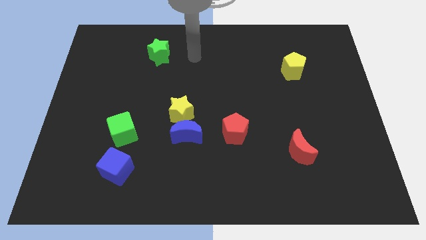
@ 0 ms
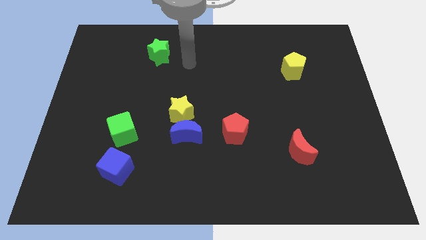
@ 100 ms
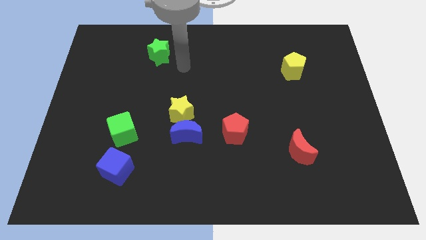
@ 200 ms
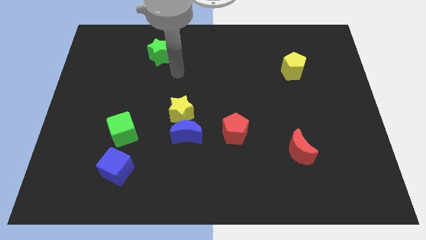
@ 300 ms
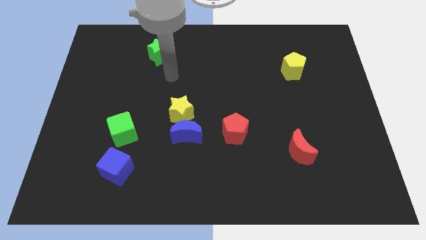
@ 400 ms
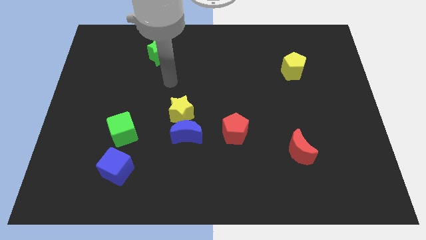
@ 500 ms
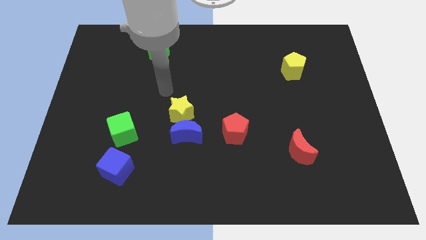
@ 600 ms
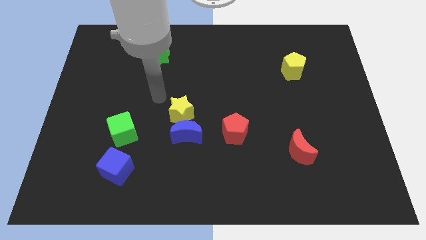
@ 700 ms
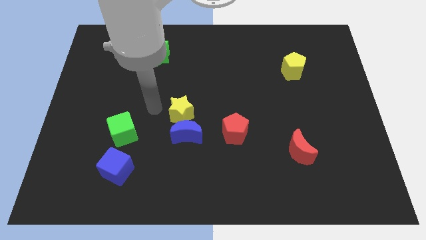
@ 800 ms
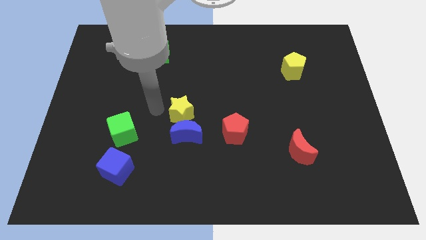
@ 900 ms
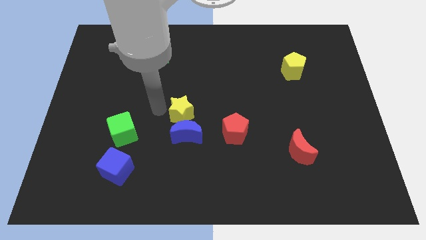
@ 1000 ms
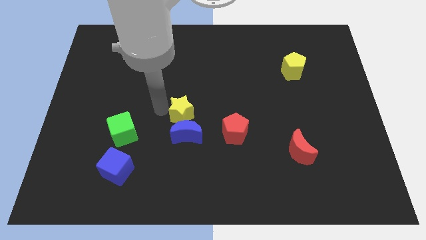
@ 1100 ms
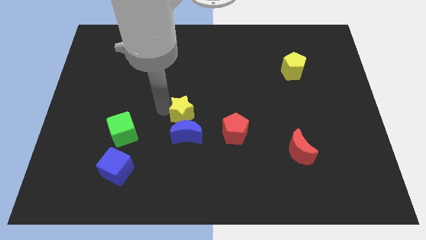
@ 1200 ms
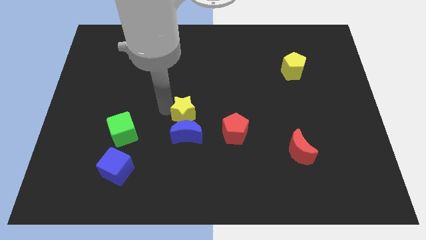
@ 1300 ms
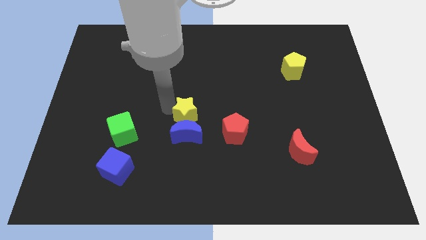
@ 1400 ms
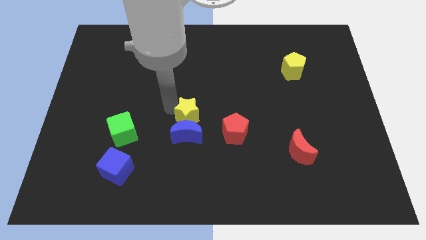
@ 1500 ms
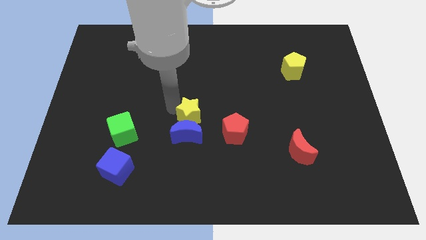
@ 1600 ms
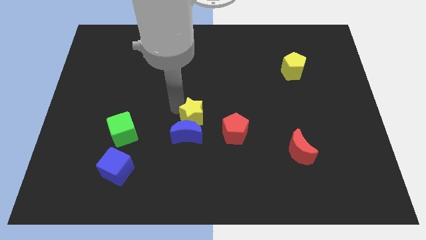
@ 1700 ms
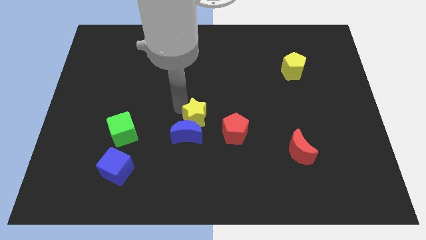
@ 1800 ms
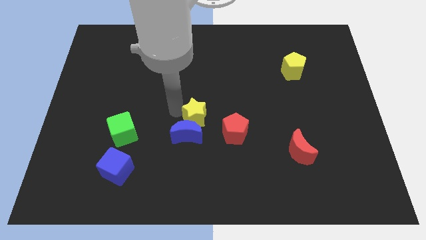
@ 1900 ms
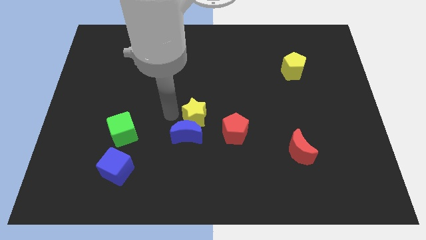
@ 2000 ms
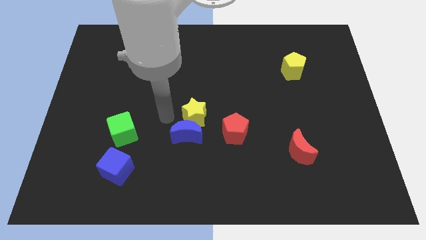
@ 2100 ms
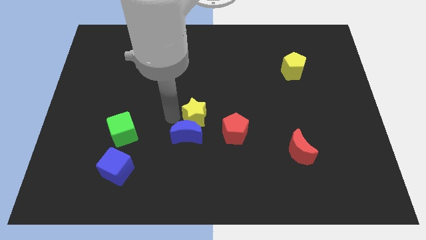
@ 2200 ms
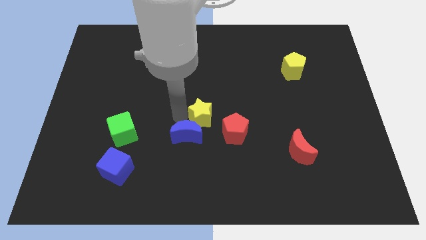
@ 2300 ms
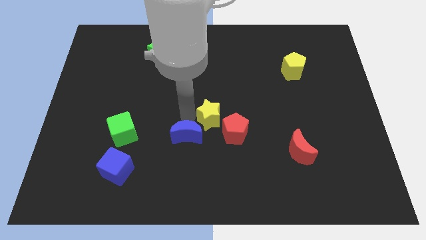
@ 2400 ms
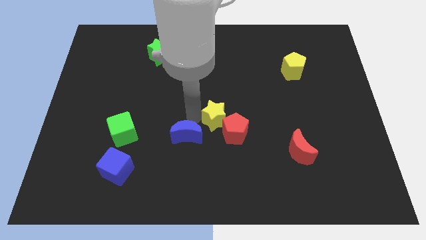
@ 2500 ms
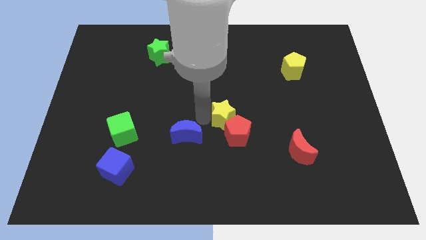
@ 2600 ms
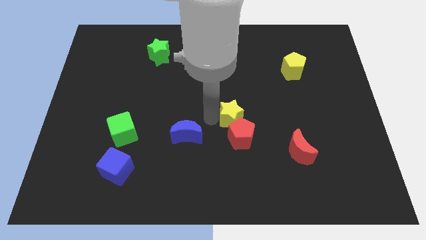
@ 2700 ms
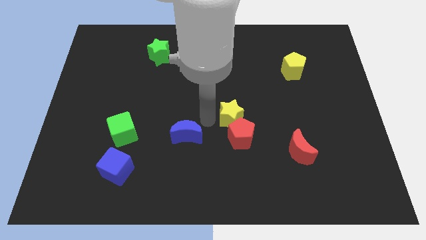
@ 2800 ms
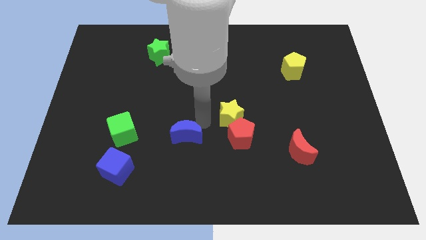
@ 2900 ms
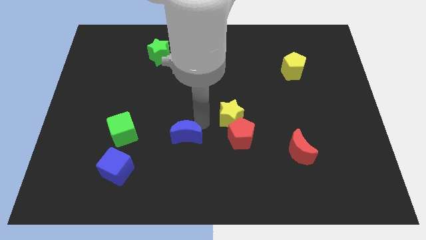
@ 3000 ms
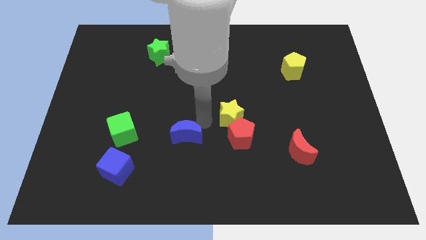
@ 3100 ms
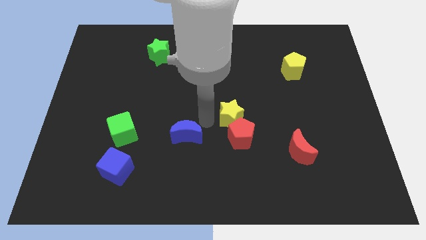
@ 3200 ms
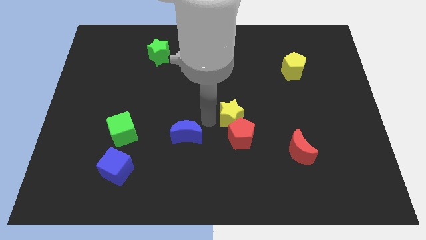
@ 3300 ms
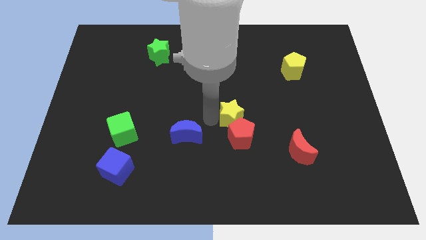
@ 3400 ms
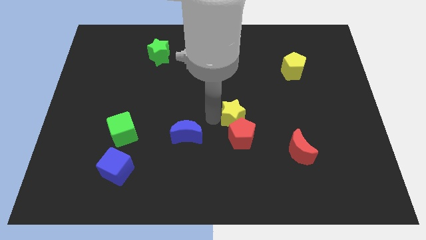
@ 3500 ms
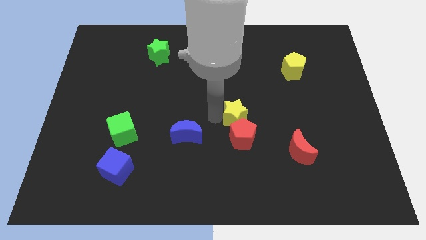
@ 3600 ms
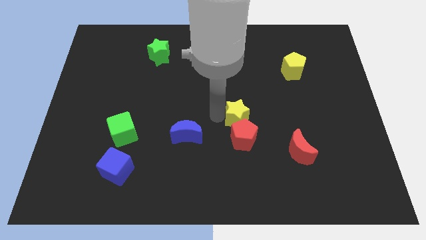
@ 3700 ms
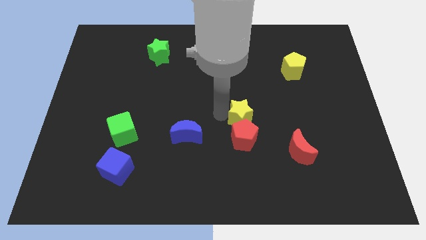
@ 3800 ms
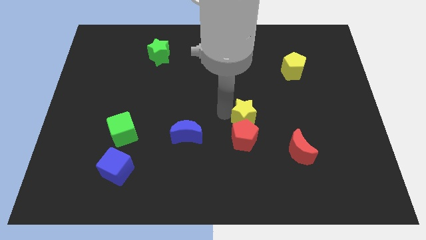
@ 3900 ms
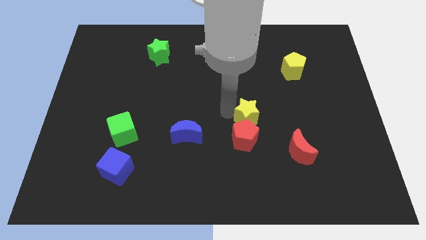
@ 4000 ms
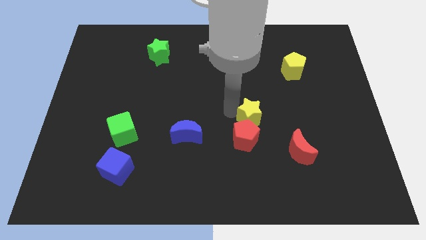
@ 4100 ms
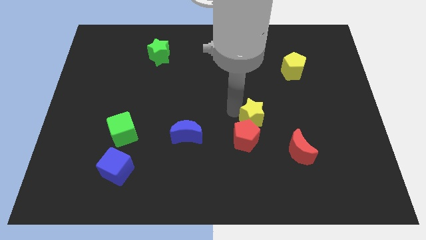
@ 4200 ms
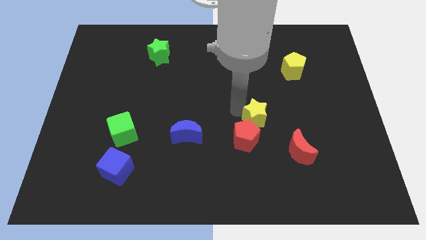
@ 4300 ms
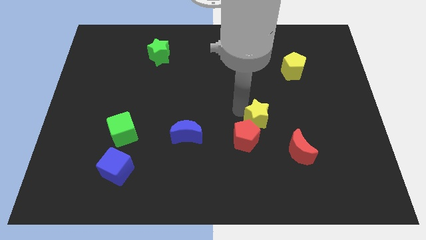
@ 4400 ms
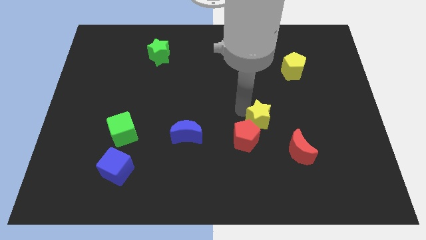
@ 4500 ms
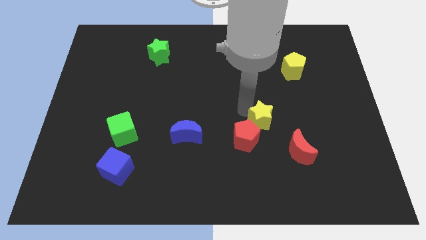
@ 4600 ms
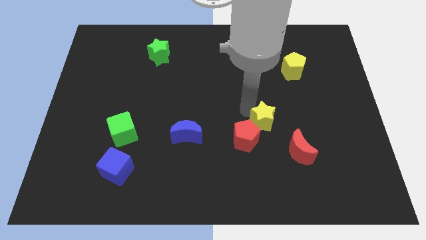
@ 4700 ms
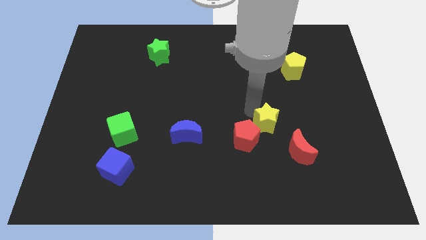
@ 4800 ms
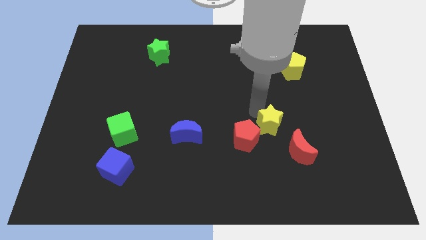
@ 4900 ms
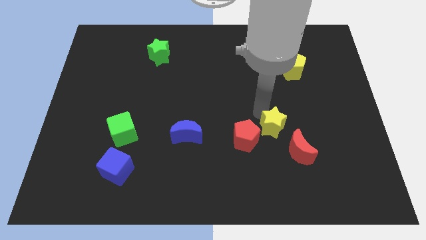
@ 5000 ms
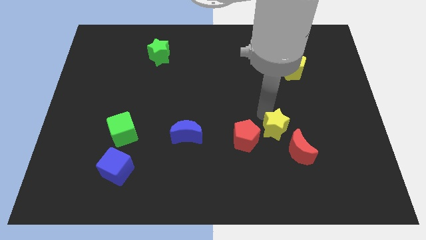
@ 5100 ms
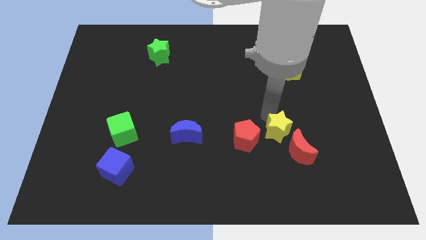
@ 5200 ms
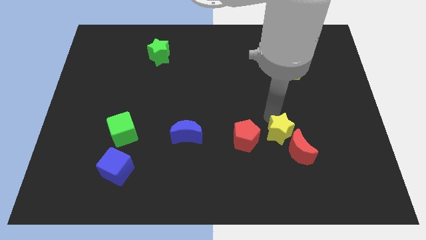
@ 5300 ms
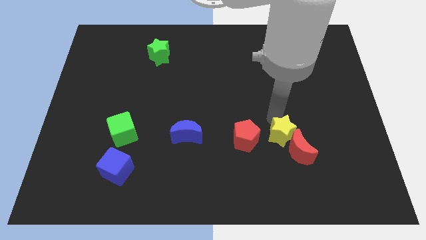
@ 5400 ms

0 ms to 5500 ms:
push the yellow star close to the red moon
